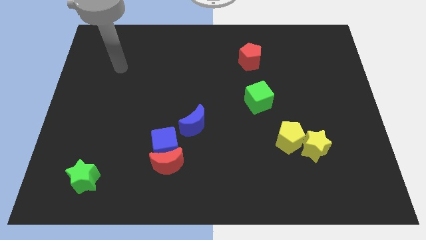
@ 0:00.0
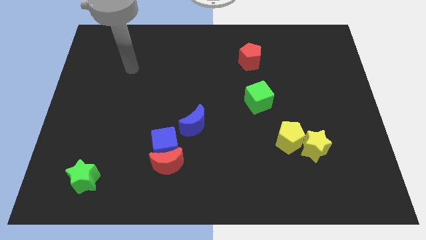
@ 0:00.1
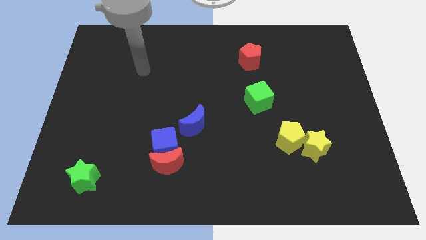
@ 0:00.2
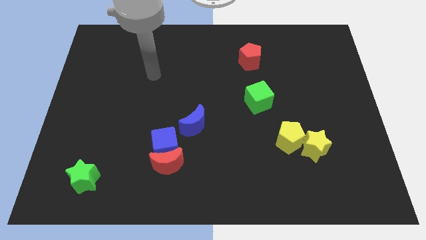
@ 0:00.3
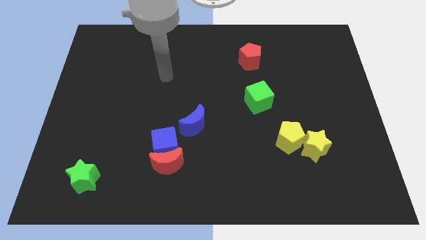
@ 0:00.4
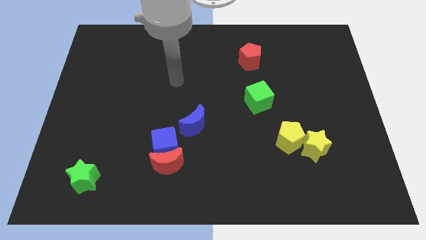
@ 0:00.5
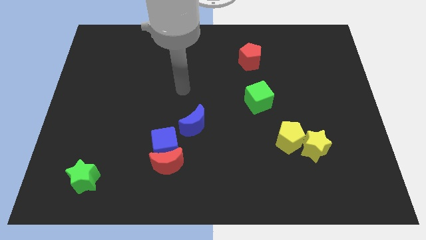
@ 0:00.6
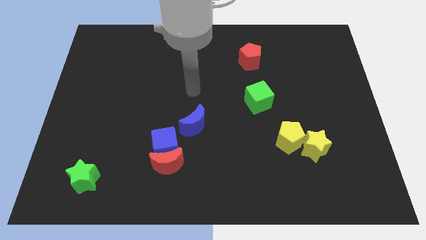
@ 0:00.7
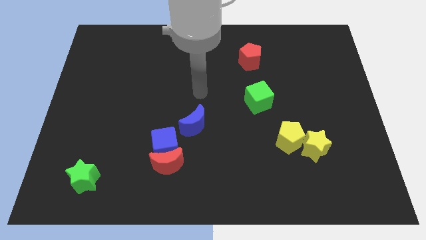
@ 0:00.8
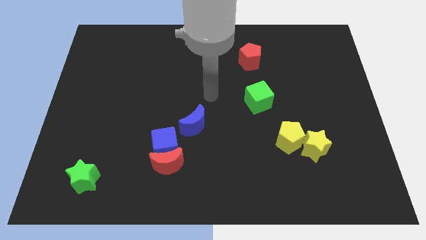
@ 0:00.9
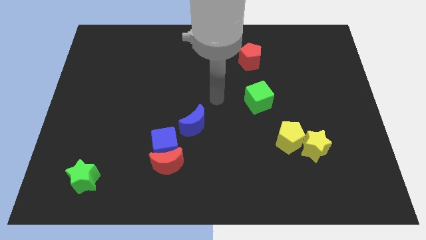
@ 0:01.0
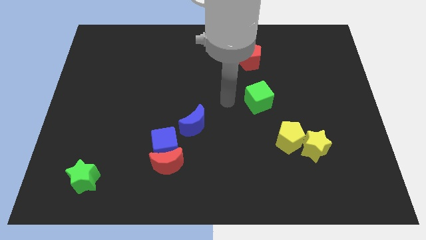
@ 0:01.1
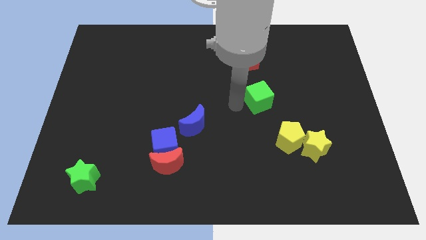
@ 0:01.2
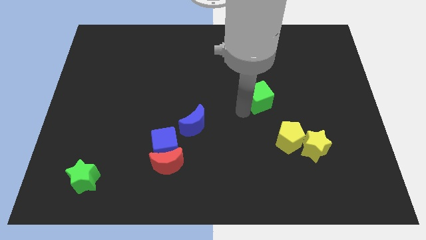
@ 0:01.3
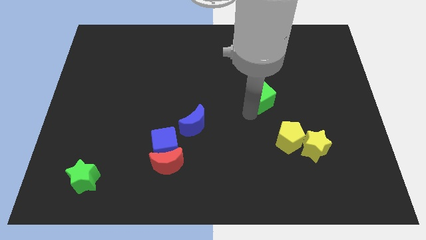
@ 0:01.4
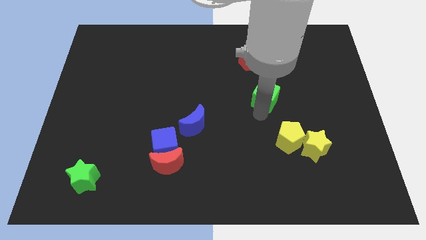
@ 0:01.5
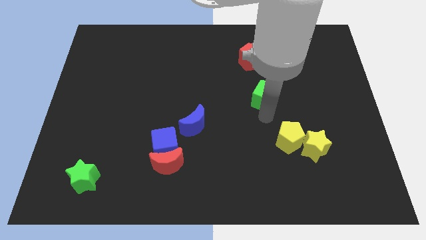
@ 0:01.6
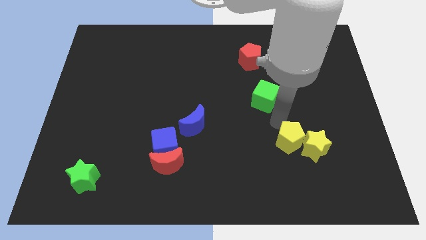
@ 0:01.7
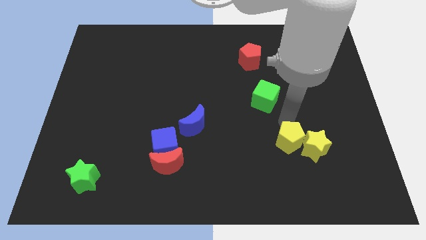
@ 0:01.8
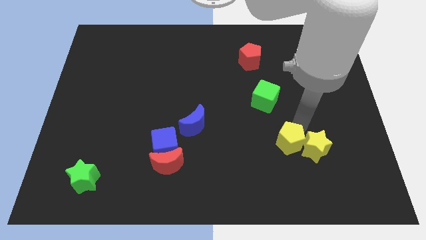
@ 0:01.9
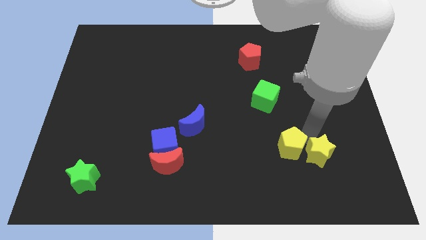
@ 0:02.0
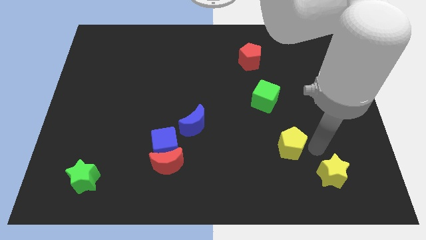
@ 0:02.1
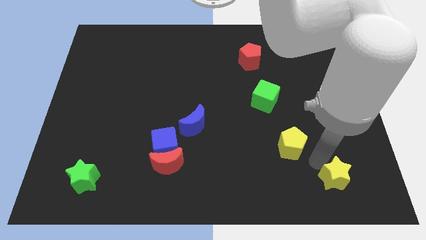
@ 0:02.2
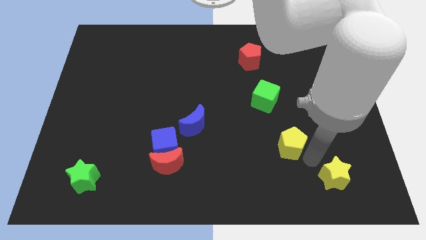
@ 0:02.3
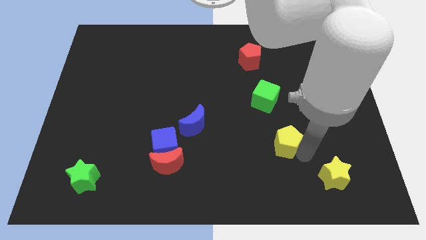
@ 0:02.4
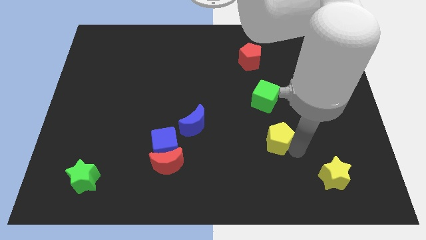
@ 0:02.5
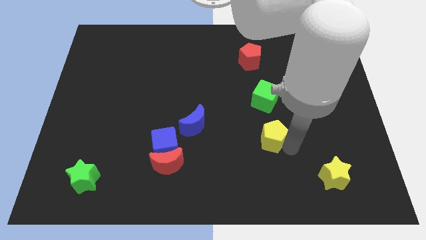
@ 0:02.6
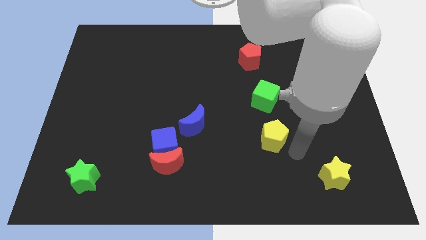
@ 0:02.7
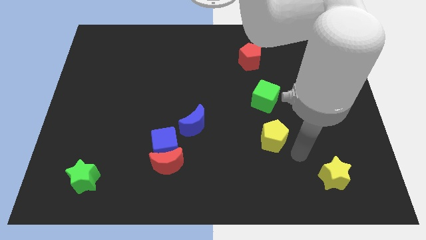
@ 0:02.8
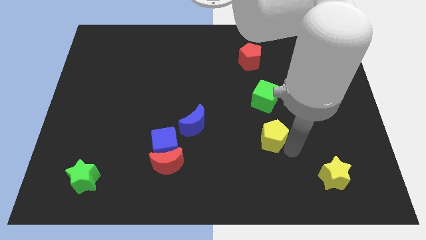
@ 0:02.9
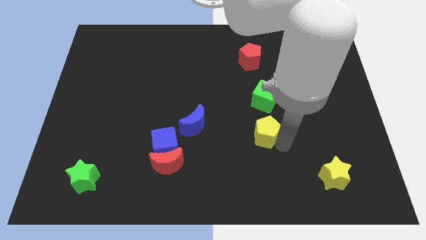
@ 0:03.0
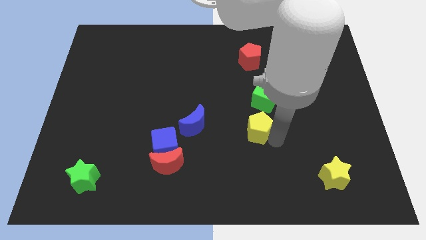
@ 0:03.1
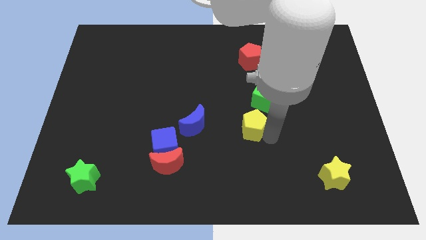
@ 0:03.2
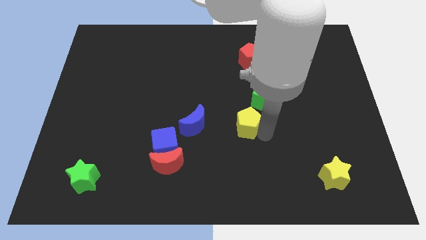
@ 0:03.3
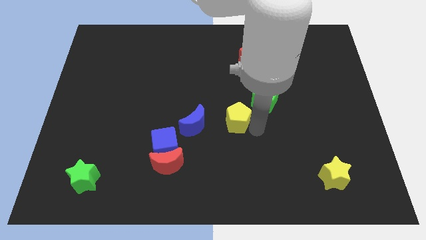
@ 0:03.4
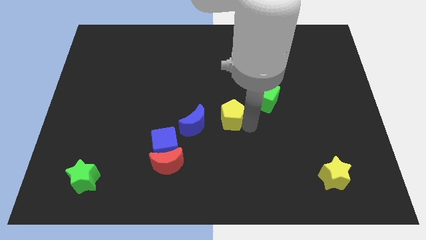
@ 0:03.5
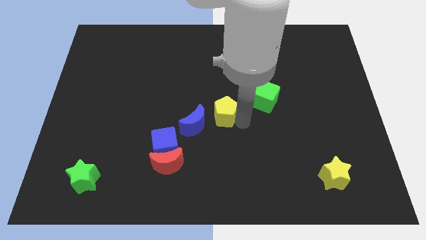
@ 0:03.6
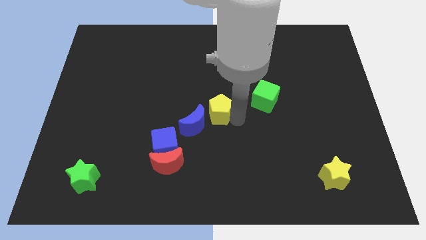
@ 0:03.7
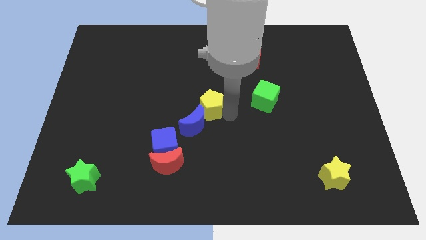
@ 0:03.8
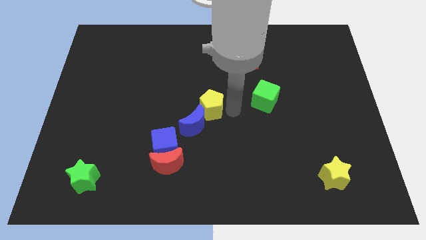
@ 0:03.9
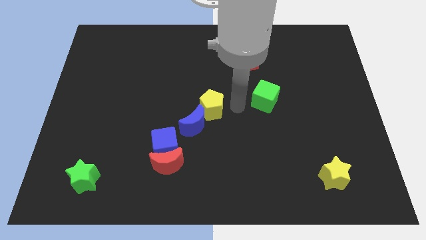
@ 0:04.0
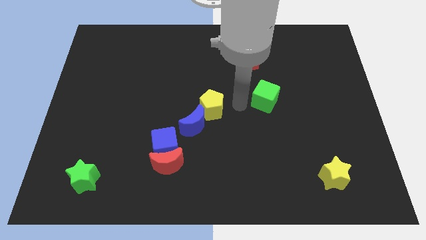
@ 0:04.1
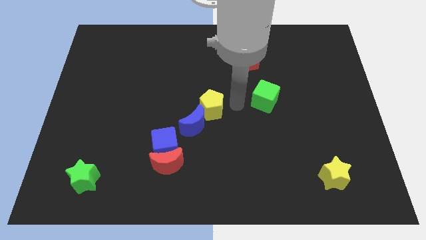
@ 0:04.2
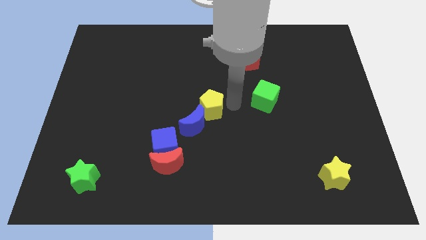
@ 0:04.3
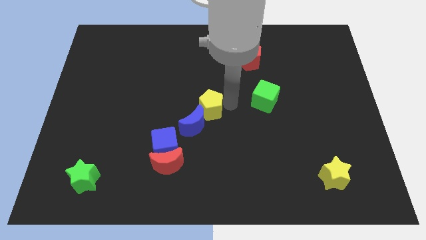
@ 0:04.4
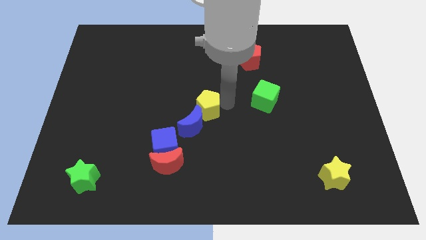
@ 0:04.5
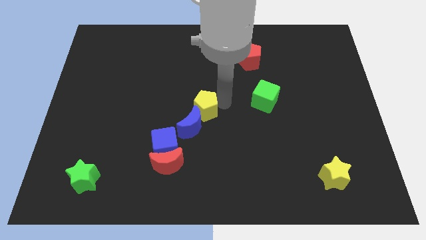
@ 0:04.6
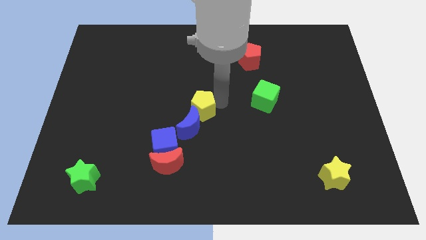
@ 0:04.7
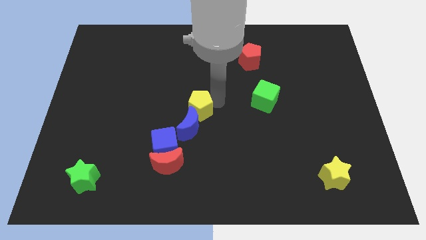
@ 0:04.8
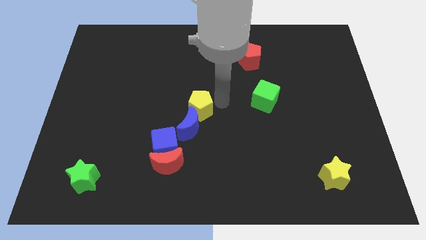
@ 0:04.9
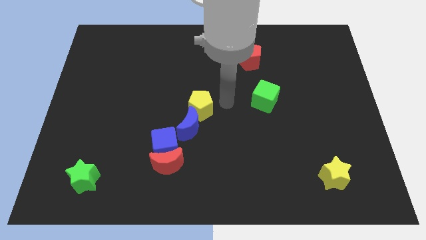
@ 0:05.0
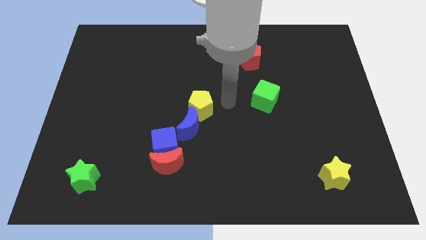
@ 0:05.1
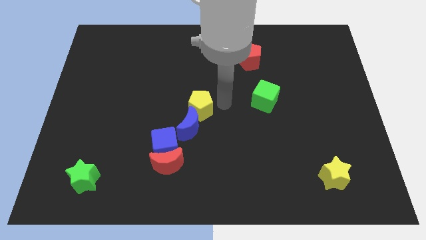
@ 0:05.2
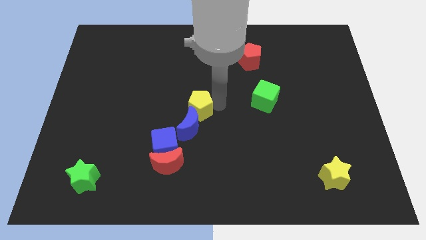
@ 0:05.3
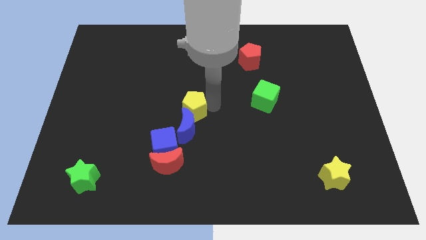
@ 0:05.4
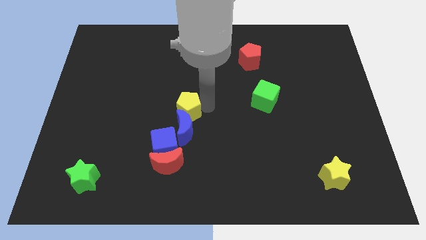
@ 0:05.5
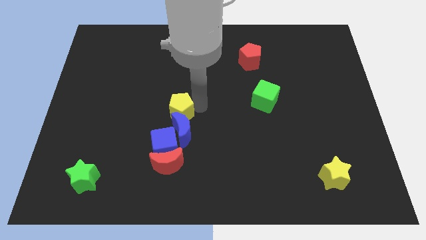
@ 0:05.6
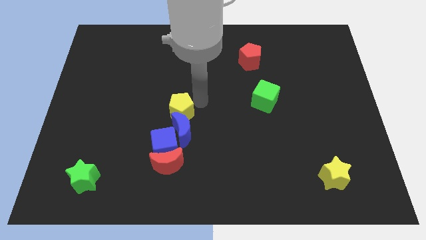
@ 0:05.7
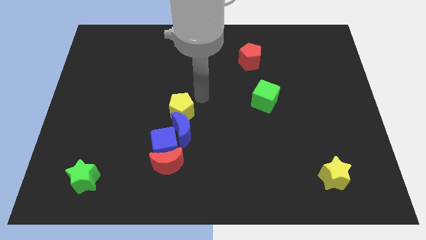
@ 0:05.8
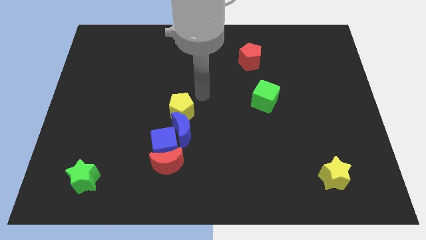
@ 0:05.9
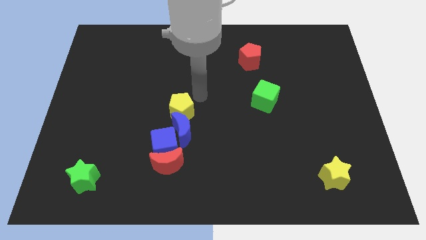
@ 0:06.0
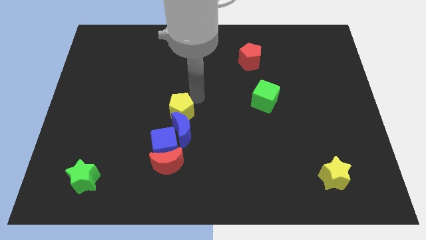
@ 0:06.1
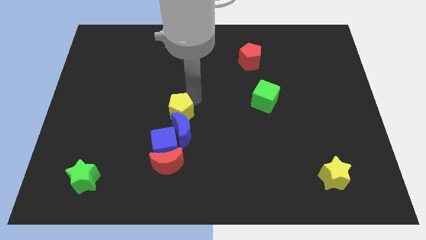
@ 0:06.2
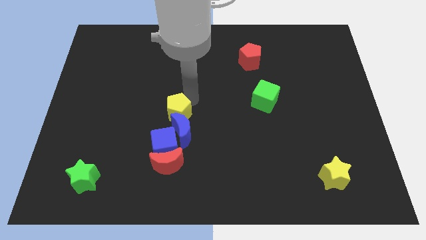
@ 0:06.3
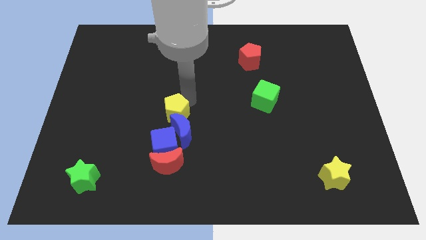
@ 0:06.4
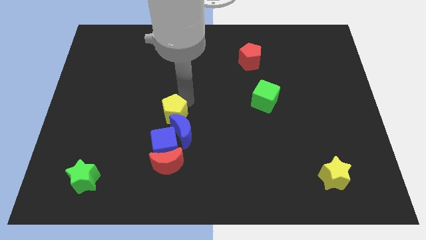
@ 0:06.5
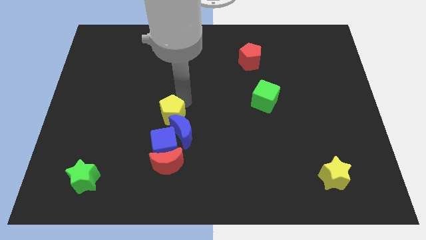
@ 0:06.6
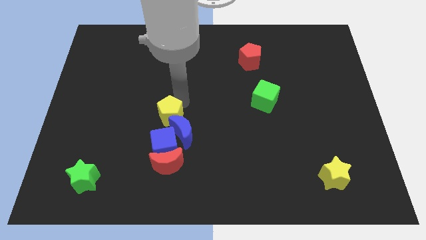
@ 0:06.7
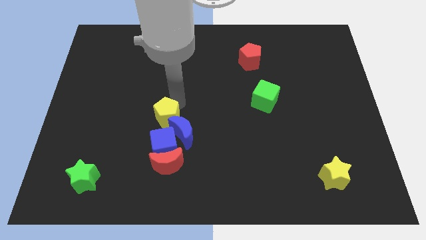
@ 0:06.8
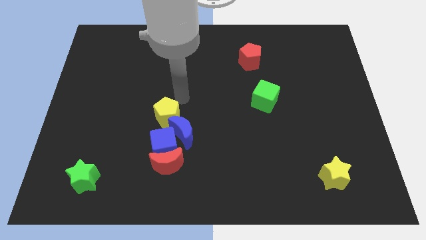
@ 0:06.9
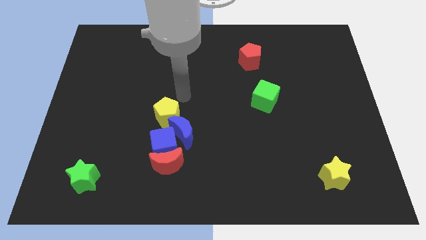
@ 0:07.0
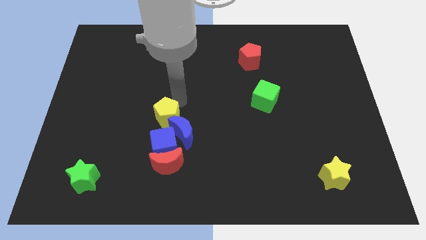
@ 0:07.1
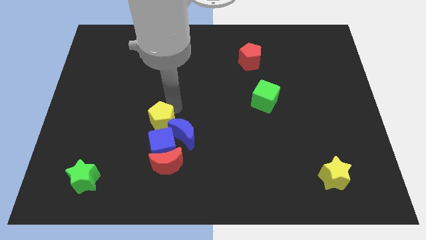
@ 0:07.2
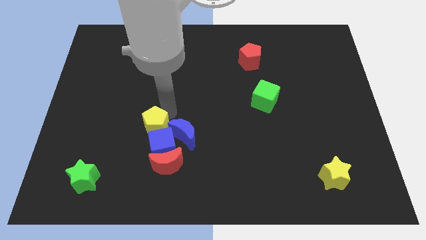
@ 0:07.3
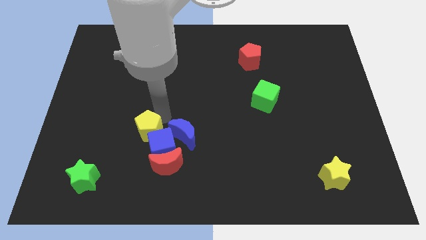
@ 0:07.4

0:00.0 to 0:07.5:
put the yellow pentagon to the top left side of the red moon
